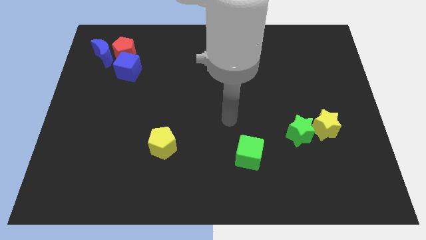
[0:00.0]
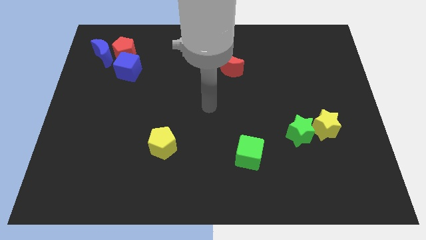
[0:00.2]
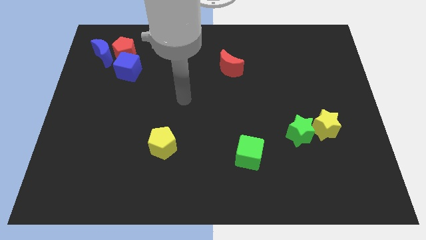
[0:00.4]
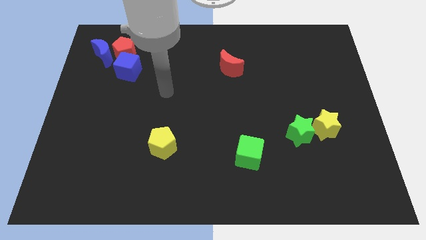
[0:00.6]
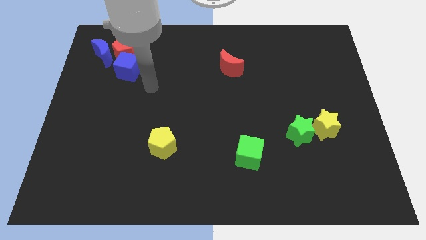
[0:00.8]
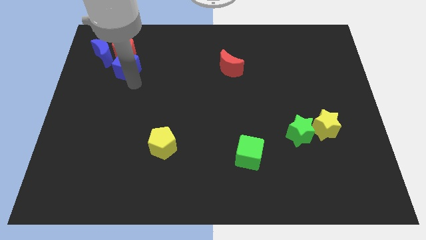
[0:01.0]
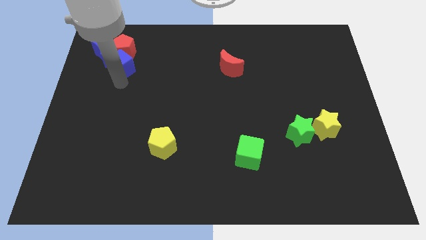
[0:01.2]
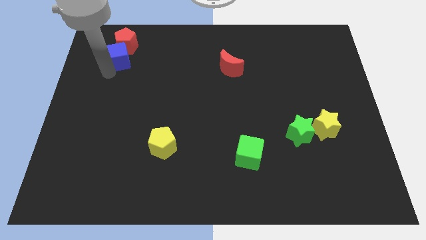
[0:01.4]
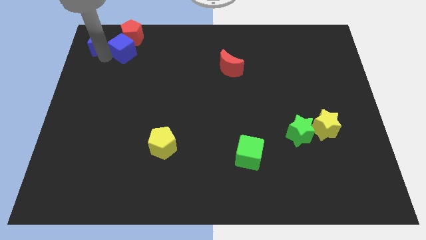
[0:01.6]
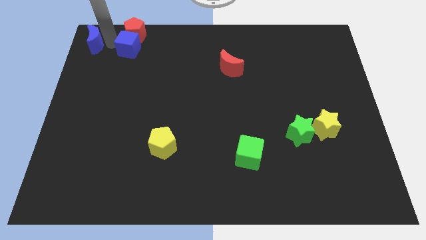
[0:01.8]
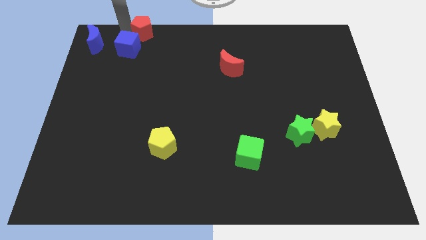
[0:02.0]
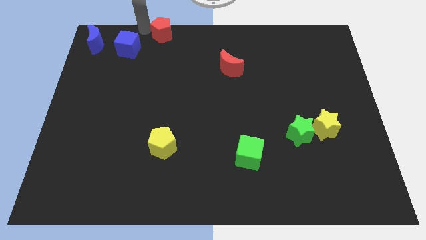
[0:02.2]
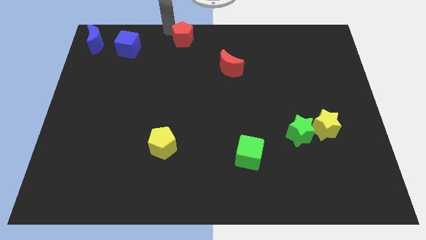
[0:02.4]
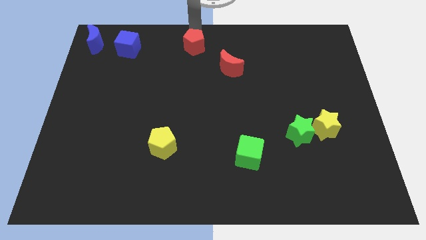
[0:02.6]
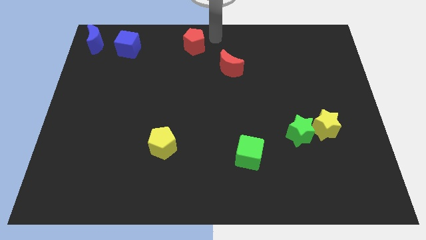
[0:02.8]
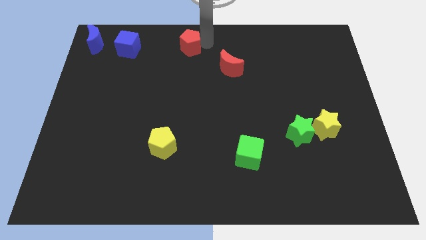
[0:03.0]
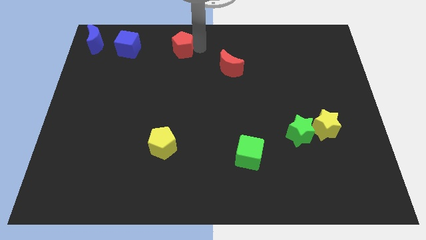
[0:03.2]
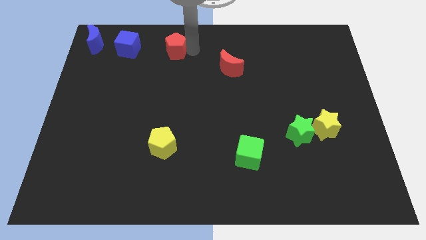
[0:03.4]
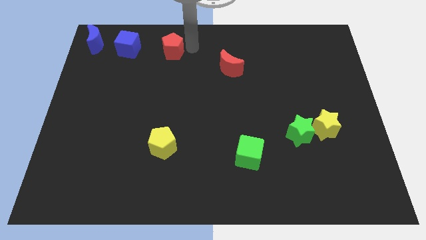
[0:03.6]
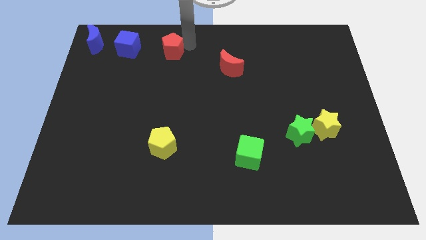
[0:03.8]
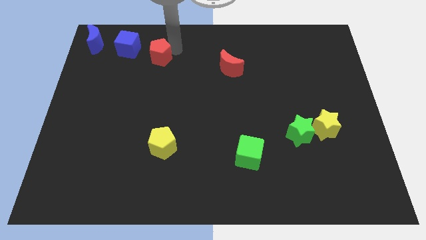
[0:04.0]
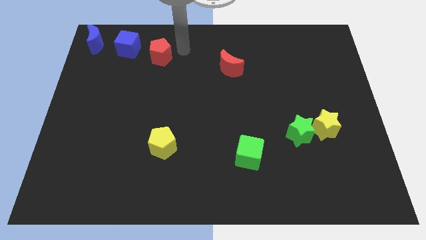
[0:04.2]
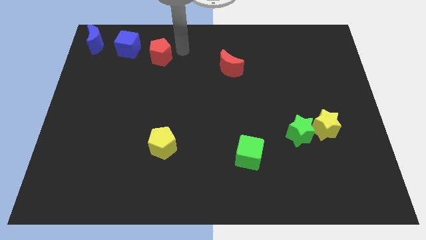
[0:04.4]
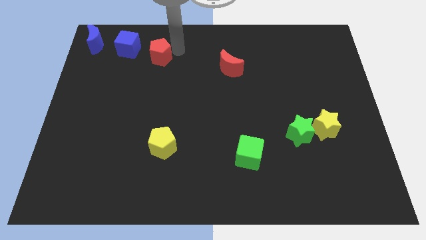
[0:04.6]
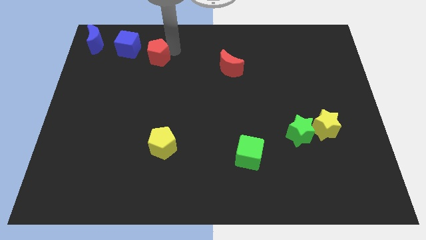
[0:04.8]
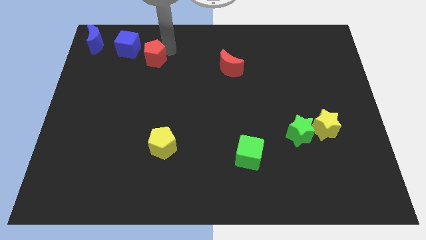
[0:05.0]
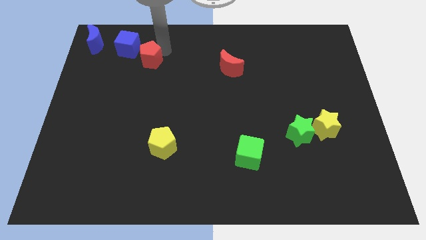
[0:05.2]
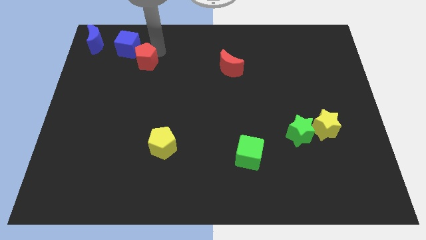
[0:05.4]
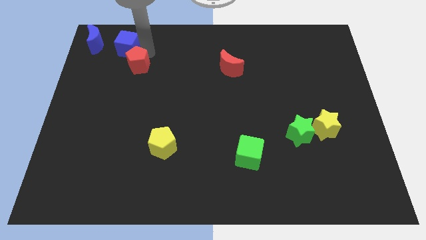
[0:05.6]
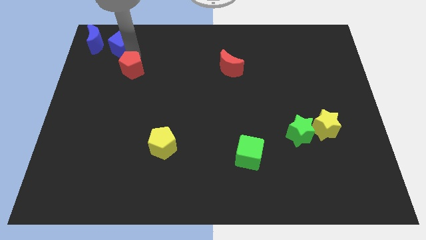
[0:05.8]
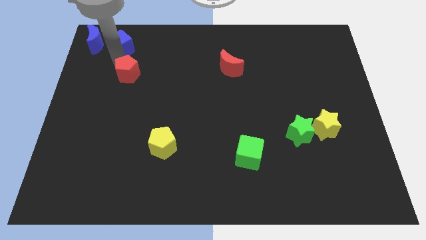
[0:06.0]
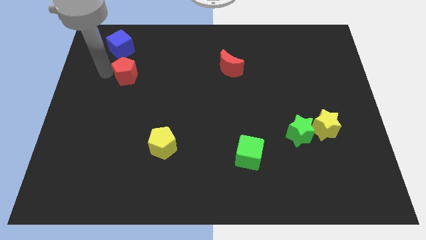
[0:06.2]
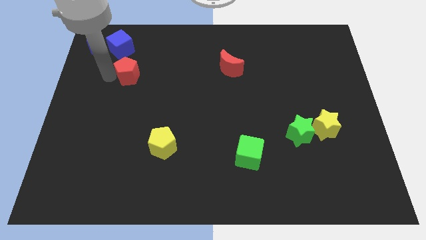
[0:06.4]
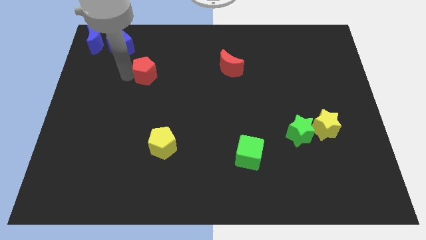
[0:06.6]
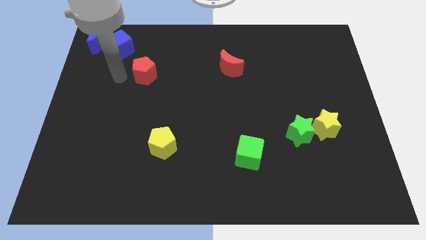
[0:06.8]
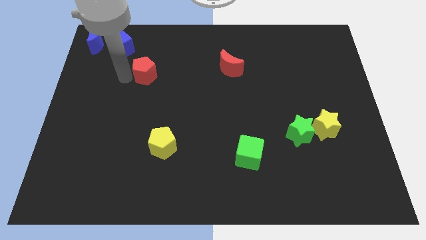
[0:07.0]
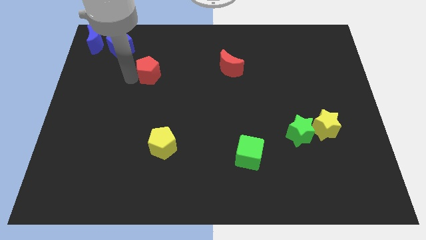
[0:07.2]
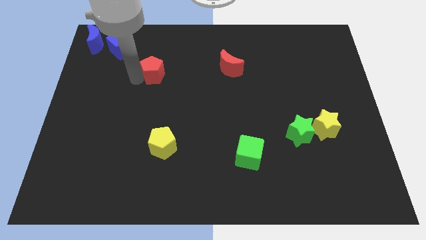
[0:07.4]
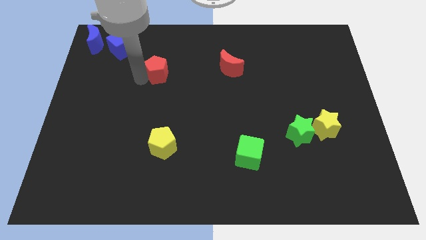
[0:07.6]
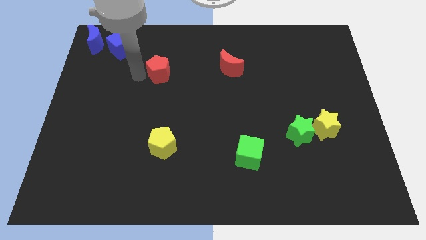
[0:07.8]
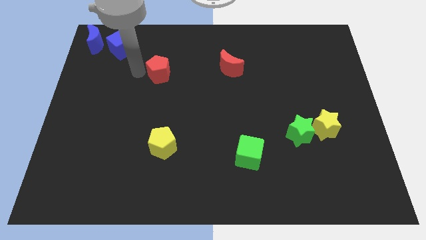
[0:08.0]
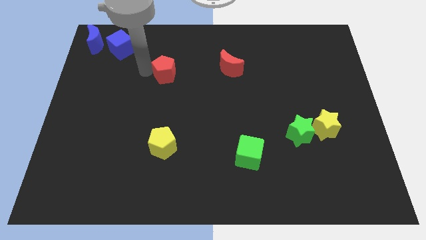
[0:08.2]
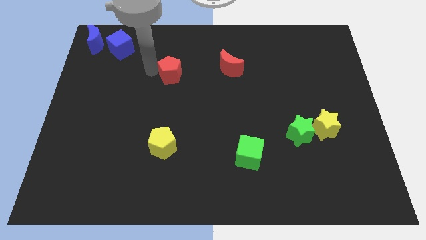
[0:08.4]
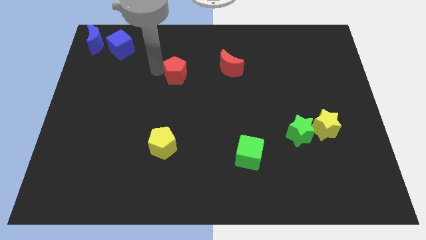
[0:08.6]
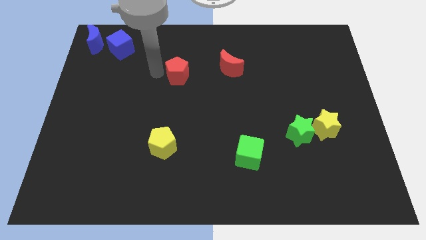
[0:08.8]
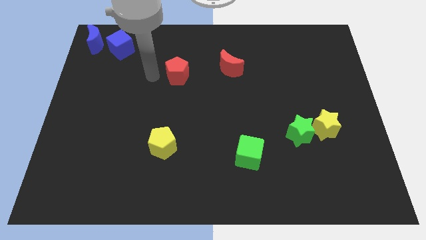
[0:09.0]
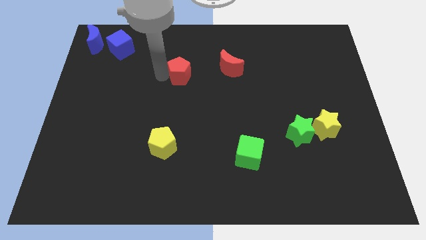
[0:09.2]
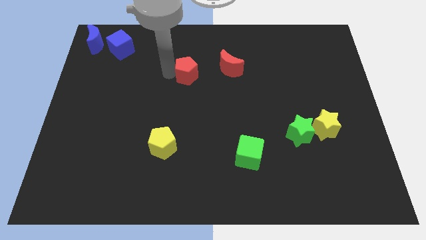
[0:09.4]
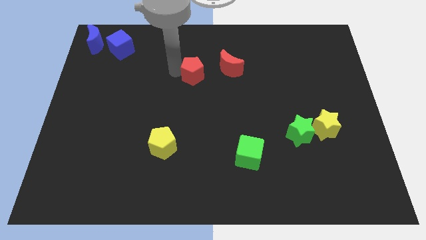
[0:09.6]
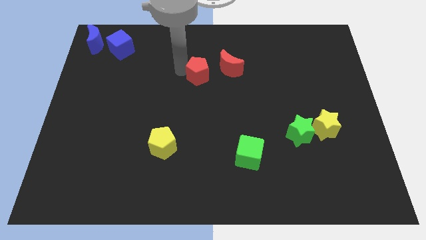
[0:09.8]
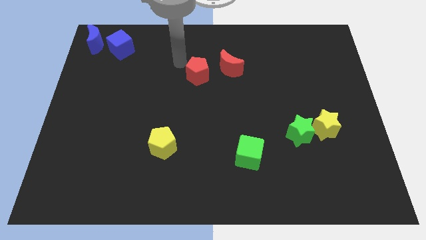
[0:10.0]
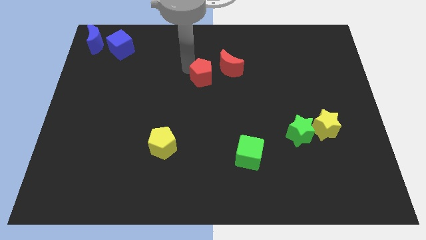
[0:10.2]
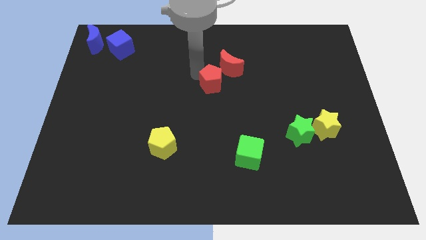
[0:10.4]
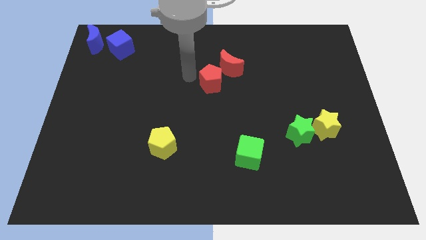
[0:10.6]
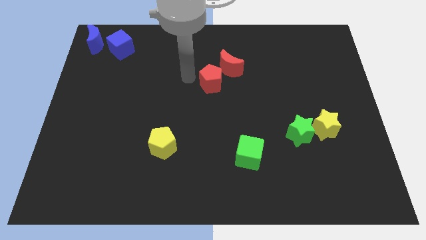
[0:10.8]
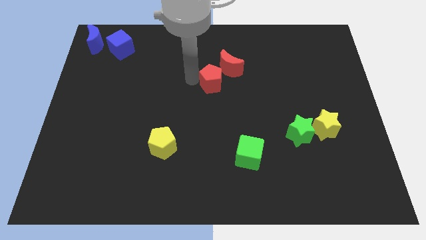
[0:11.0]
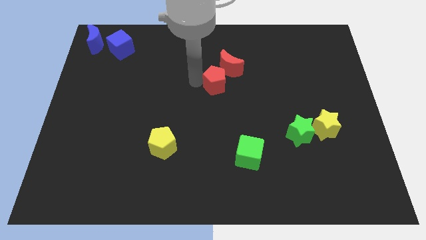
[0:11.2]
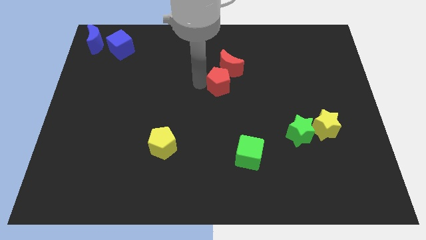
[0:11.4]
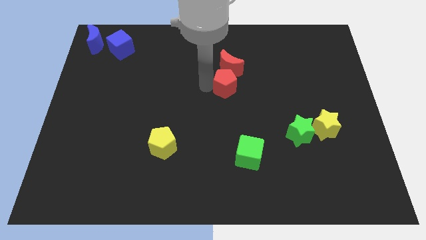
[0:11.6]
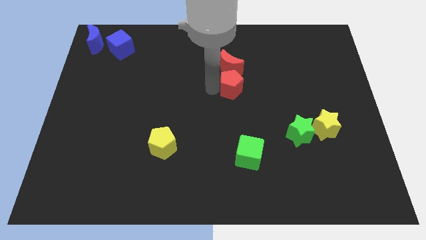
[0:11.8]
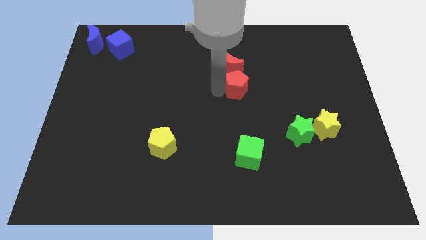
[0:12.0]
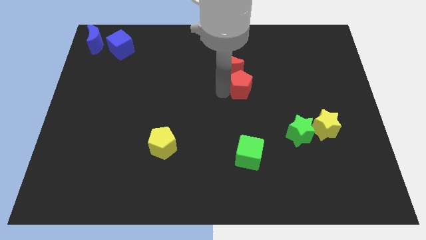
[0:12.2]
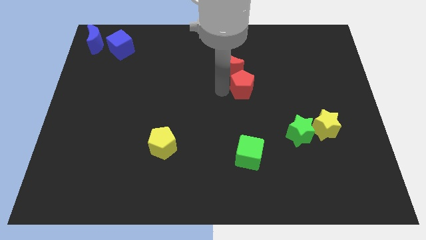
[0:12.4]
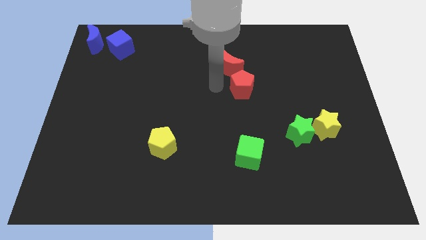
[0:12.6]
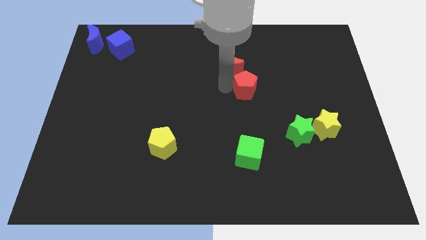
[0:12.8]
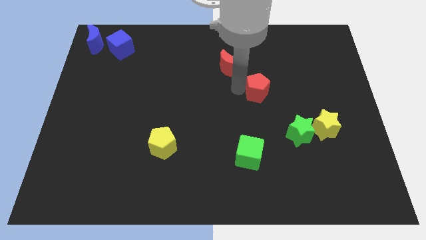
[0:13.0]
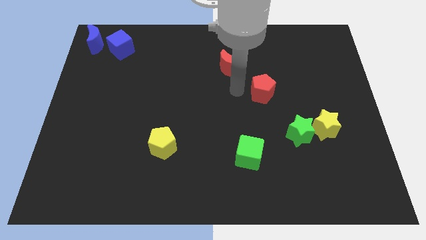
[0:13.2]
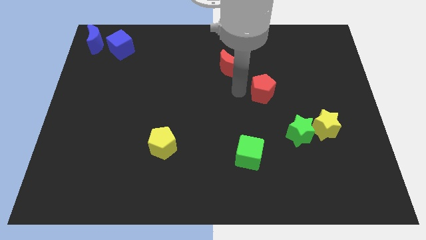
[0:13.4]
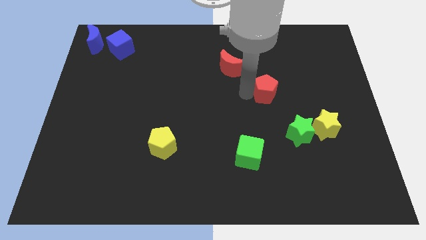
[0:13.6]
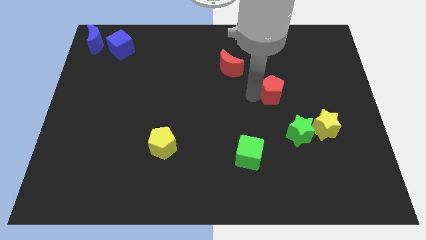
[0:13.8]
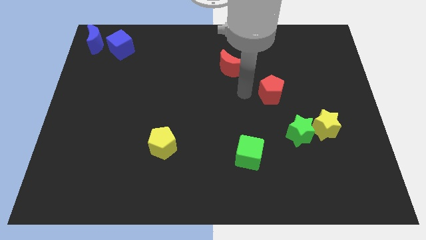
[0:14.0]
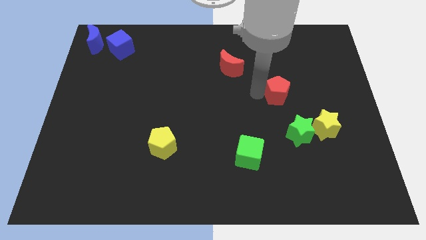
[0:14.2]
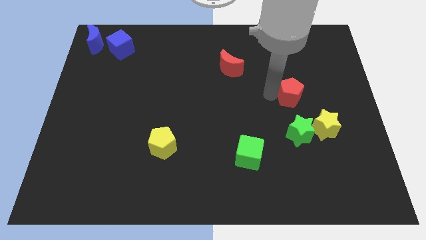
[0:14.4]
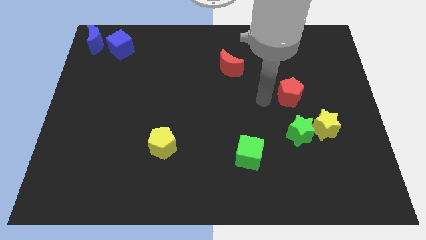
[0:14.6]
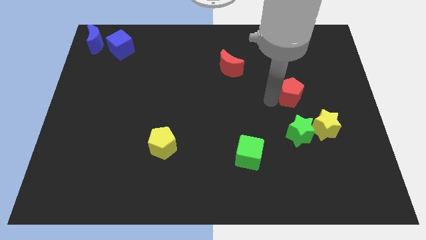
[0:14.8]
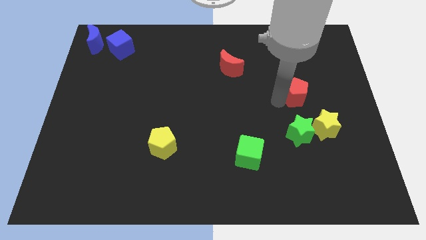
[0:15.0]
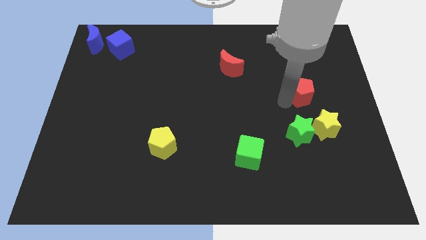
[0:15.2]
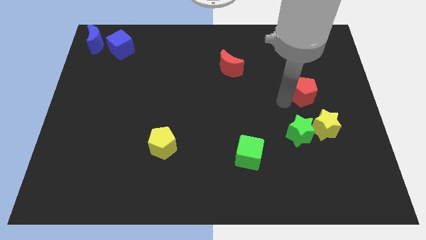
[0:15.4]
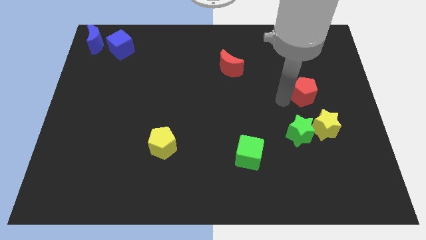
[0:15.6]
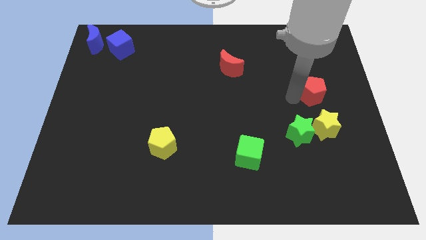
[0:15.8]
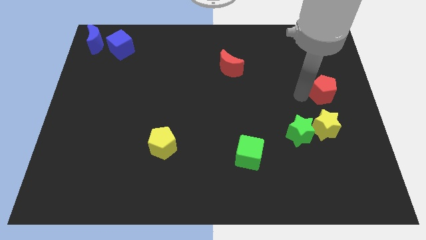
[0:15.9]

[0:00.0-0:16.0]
push the red pentagon to the center right
